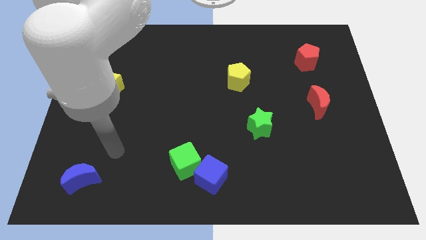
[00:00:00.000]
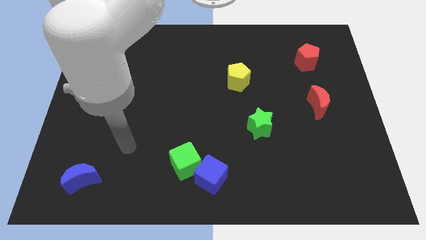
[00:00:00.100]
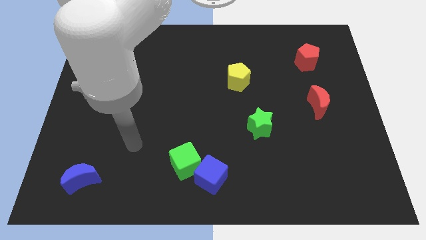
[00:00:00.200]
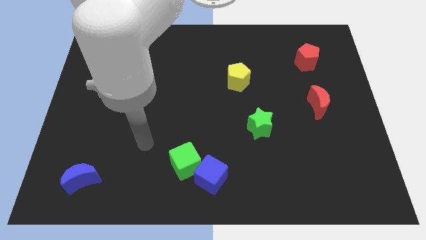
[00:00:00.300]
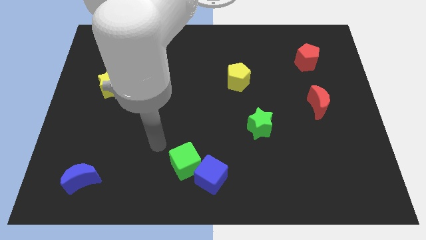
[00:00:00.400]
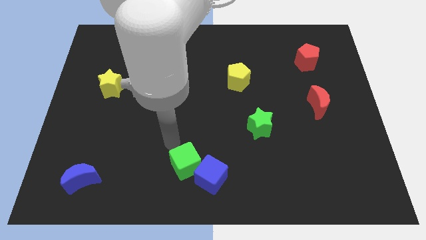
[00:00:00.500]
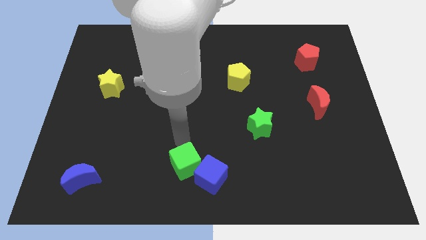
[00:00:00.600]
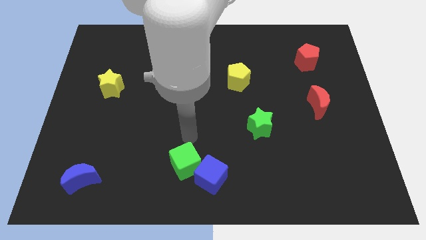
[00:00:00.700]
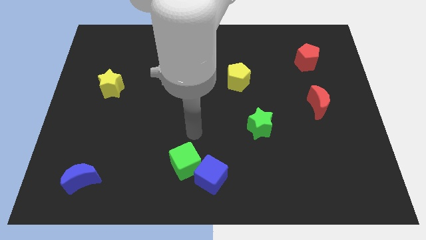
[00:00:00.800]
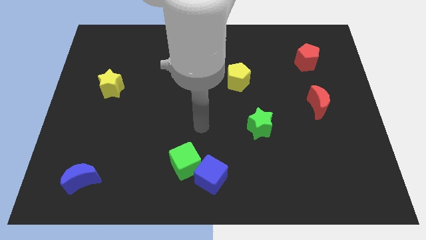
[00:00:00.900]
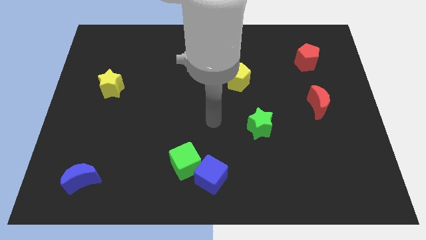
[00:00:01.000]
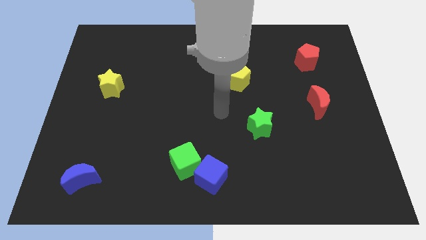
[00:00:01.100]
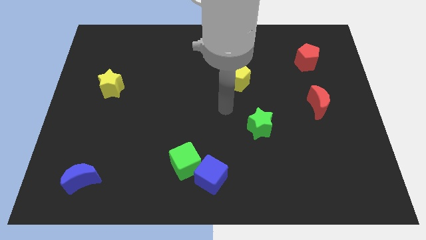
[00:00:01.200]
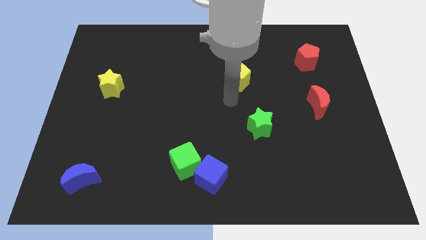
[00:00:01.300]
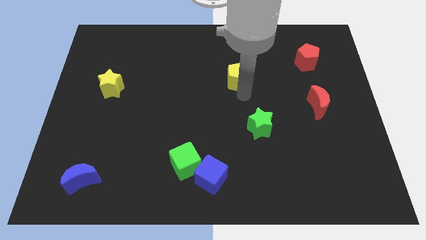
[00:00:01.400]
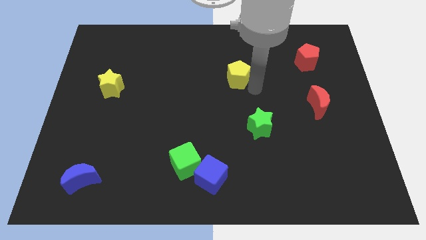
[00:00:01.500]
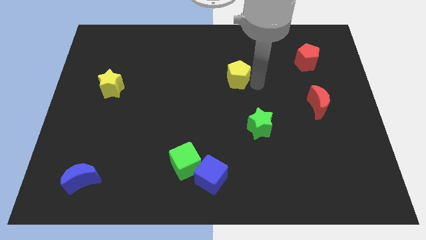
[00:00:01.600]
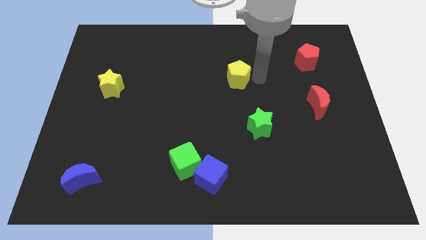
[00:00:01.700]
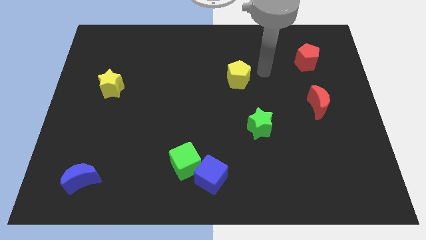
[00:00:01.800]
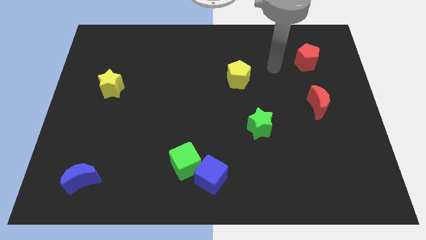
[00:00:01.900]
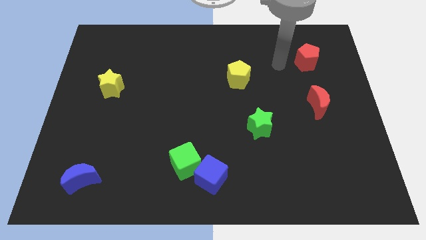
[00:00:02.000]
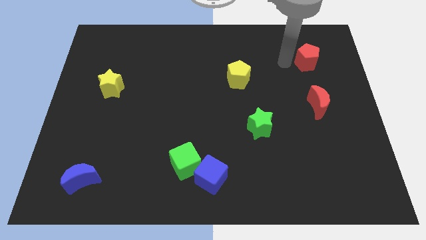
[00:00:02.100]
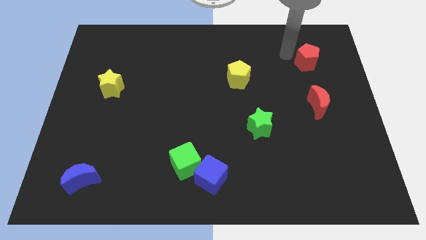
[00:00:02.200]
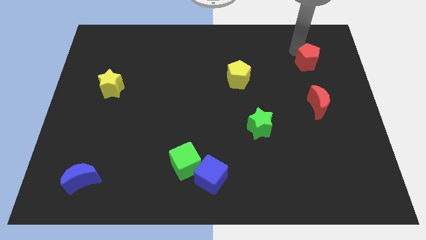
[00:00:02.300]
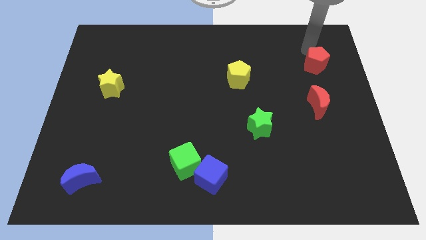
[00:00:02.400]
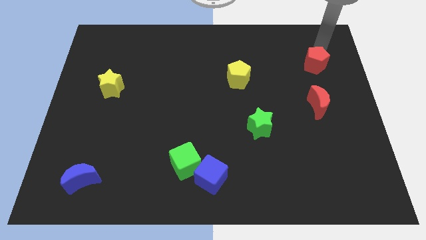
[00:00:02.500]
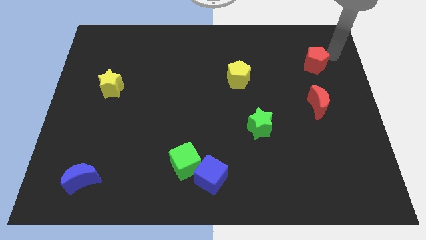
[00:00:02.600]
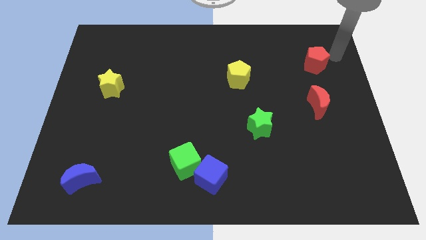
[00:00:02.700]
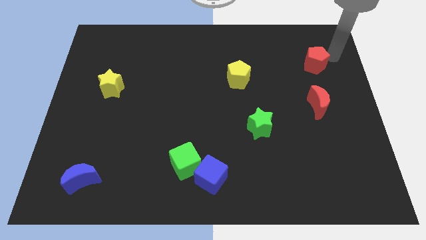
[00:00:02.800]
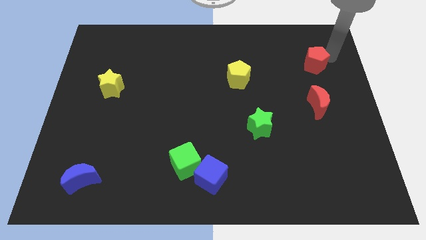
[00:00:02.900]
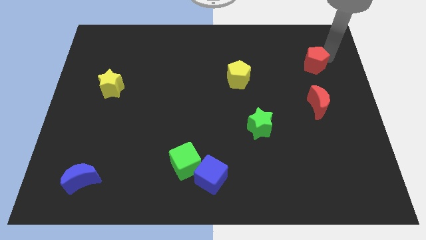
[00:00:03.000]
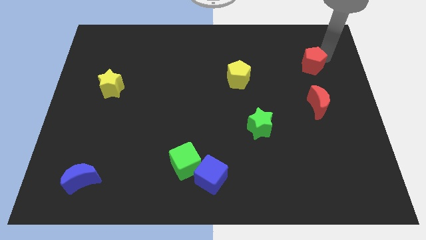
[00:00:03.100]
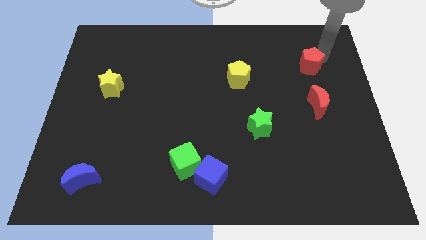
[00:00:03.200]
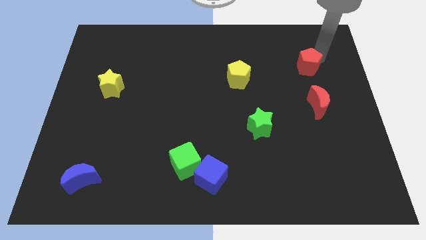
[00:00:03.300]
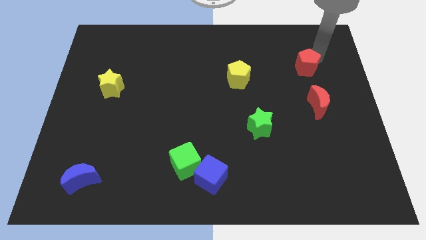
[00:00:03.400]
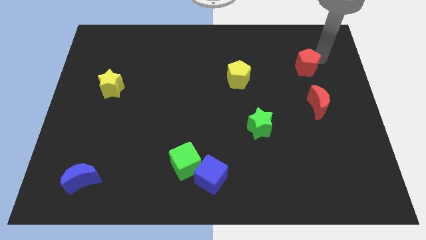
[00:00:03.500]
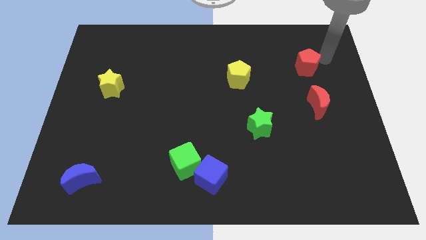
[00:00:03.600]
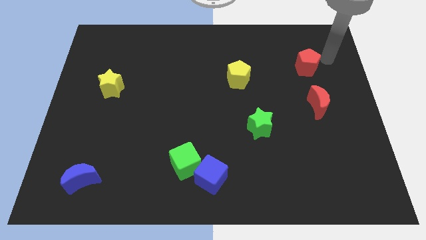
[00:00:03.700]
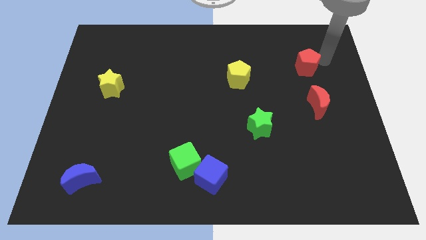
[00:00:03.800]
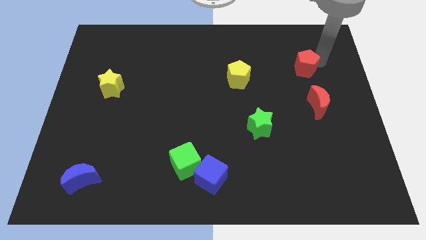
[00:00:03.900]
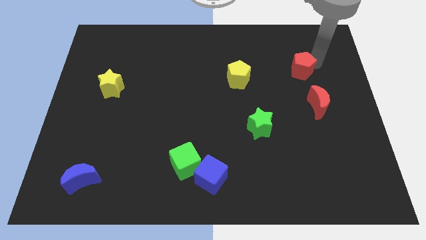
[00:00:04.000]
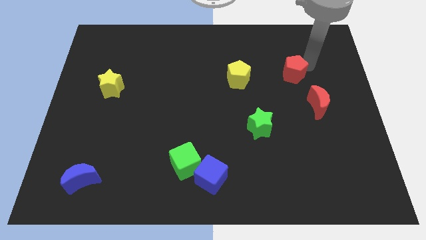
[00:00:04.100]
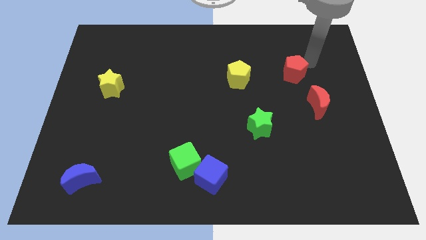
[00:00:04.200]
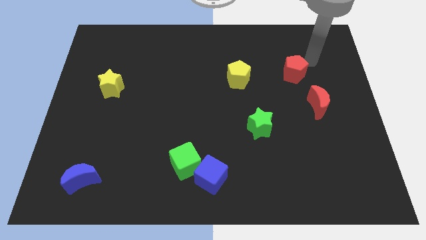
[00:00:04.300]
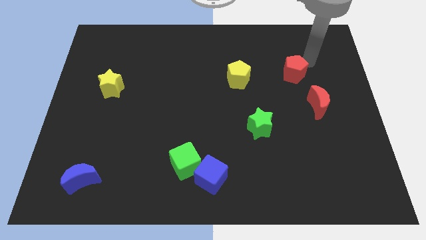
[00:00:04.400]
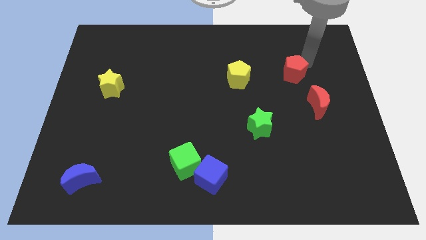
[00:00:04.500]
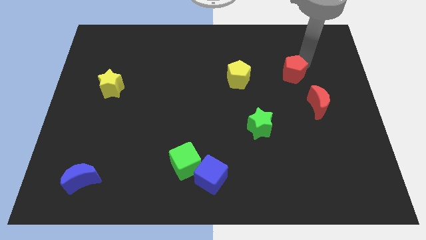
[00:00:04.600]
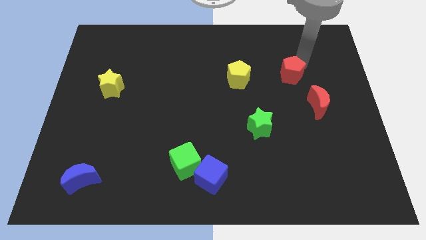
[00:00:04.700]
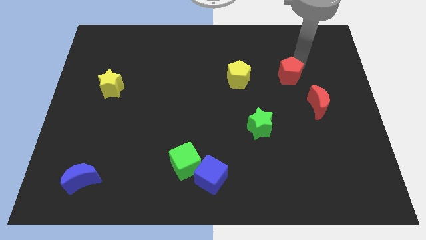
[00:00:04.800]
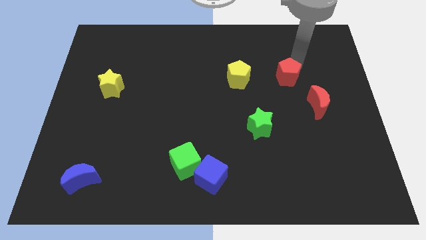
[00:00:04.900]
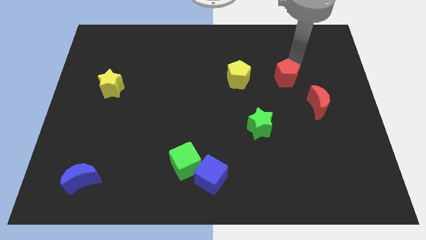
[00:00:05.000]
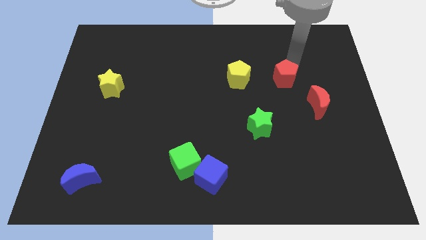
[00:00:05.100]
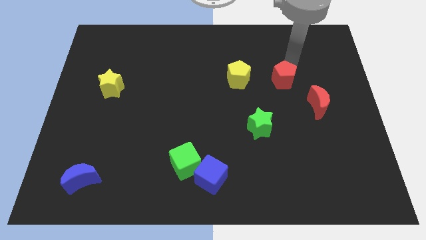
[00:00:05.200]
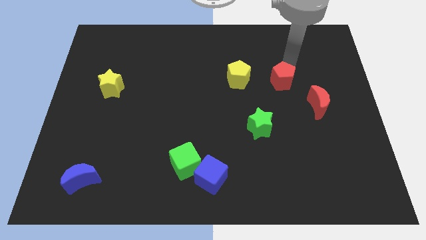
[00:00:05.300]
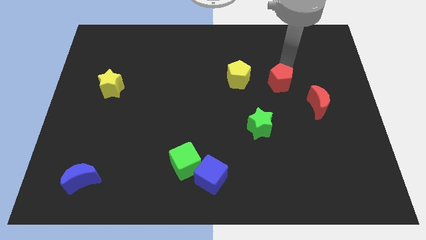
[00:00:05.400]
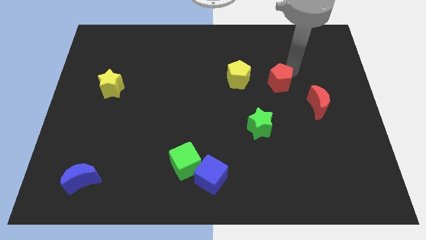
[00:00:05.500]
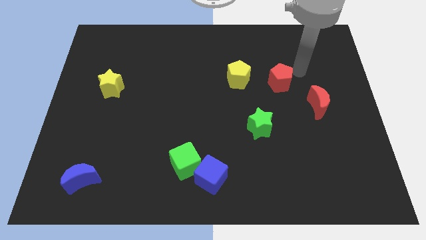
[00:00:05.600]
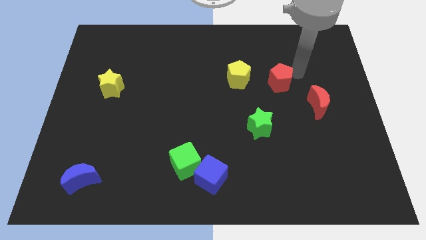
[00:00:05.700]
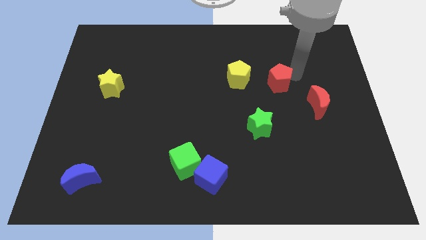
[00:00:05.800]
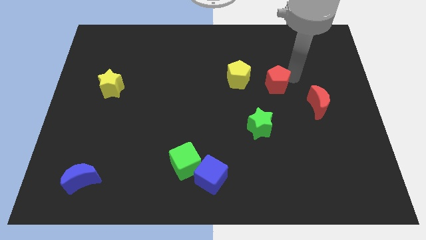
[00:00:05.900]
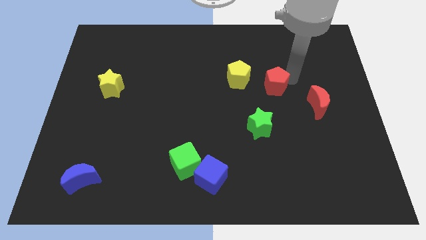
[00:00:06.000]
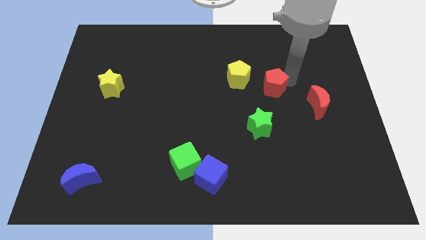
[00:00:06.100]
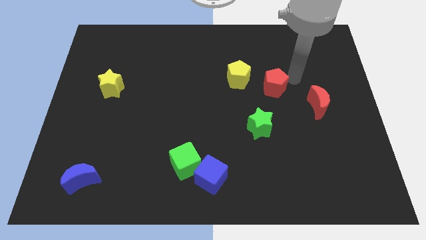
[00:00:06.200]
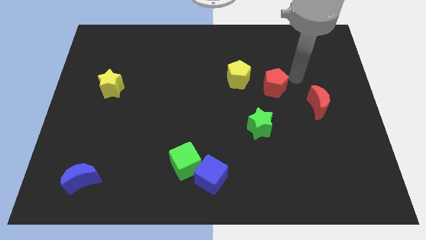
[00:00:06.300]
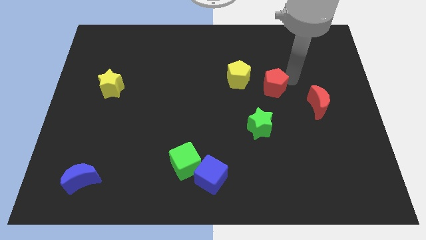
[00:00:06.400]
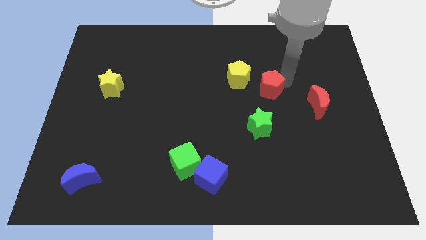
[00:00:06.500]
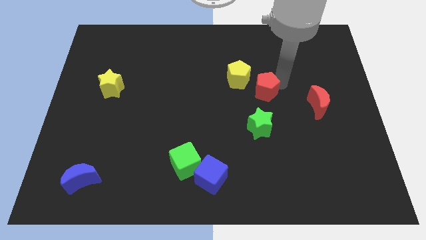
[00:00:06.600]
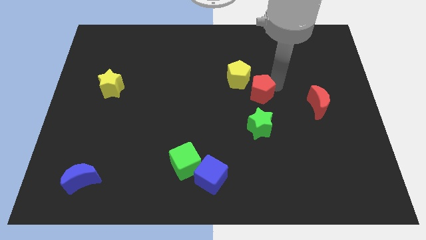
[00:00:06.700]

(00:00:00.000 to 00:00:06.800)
push the red pentagon to the middle
